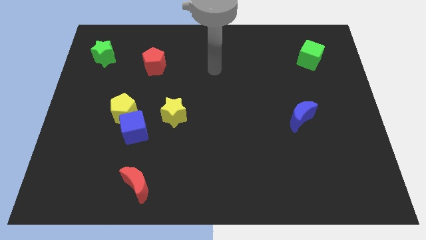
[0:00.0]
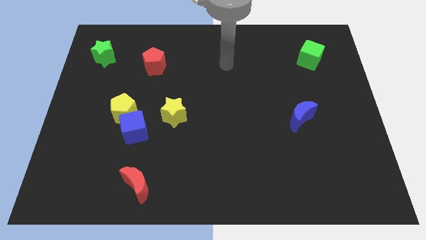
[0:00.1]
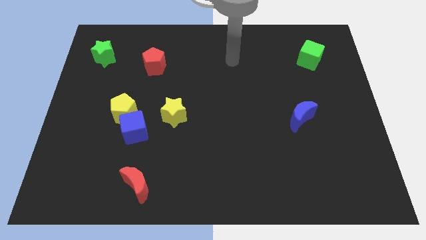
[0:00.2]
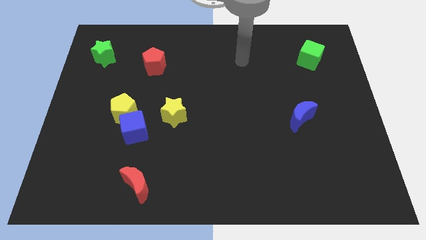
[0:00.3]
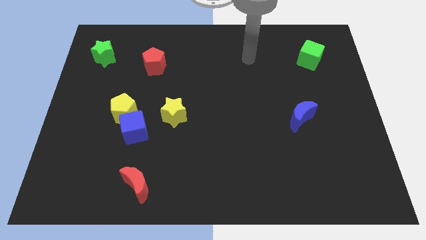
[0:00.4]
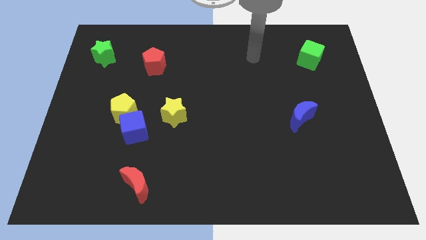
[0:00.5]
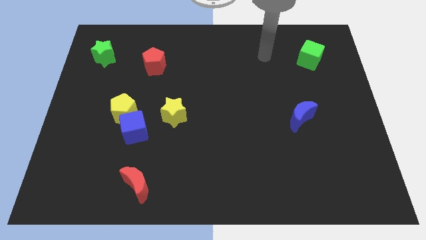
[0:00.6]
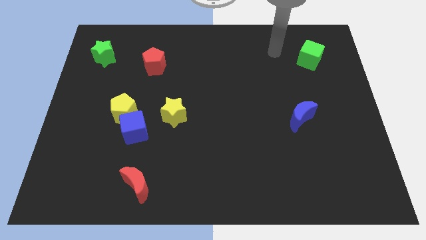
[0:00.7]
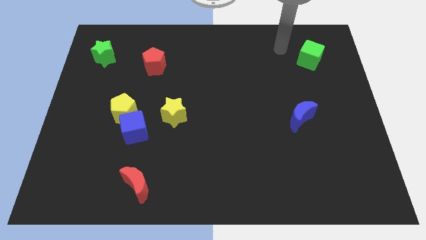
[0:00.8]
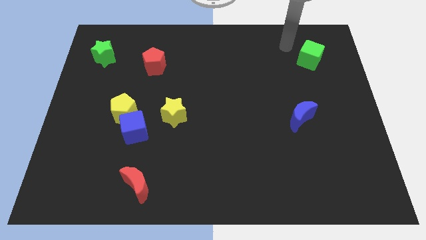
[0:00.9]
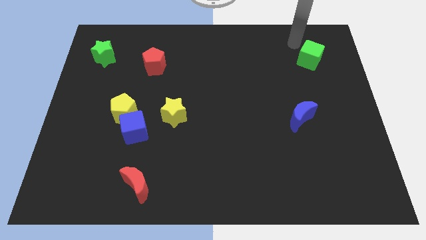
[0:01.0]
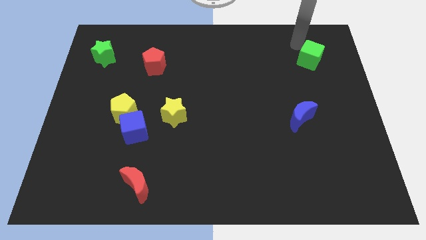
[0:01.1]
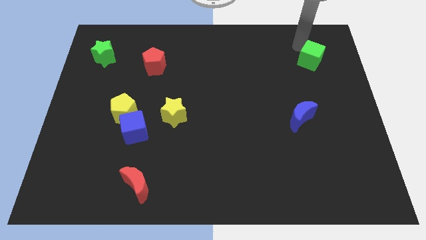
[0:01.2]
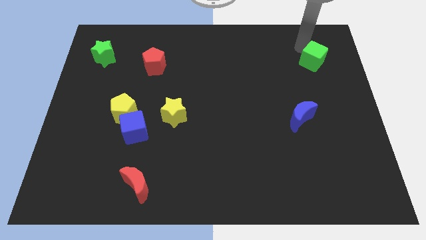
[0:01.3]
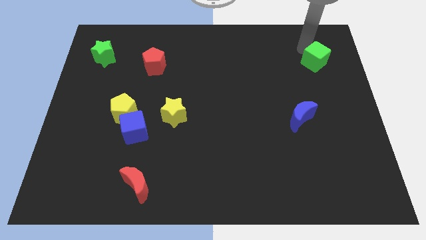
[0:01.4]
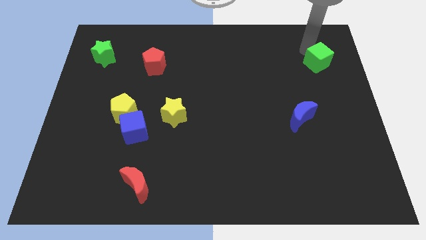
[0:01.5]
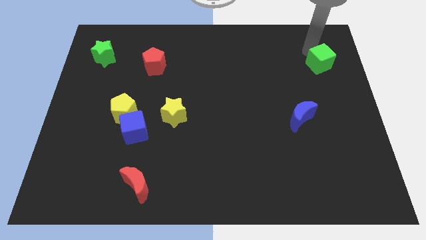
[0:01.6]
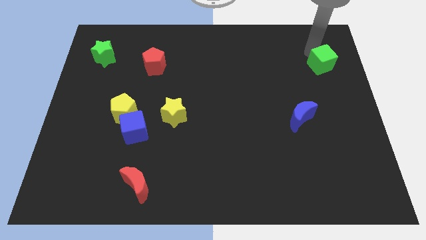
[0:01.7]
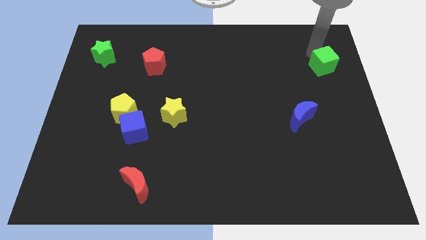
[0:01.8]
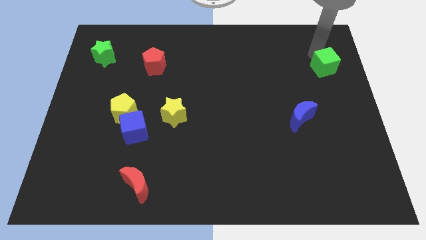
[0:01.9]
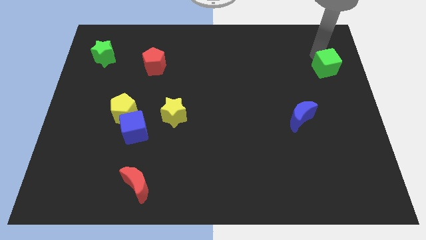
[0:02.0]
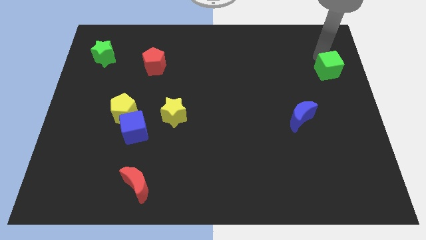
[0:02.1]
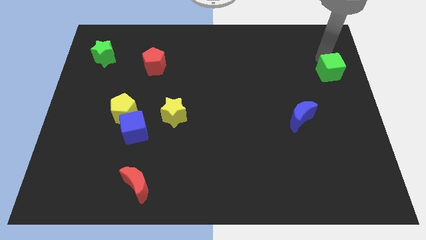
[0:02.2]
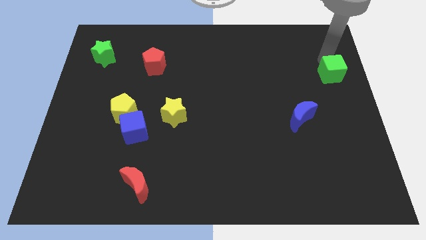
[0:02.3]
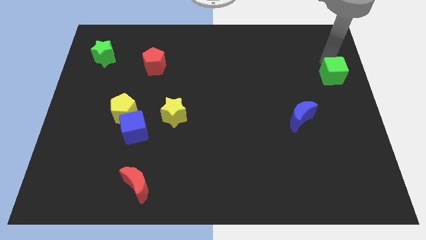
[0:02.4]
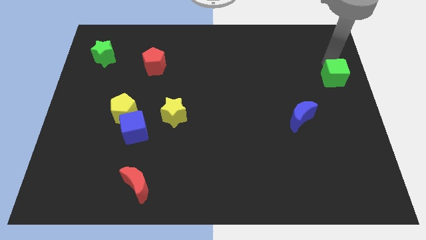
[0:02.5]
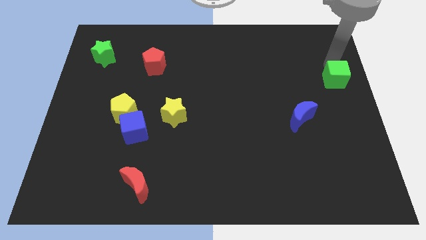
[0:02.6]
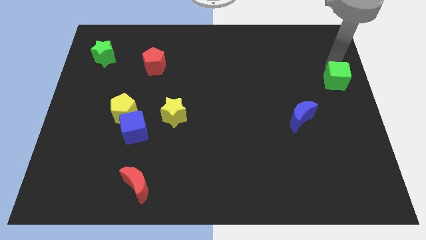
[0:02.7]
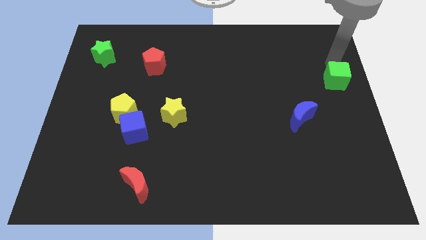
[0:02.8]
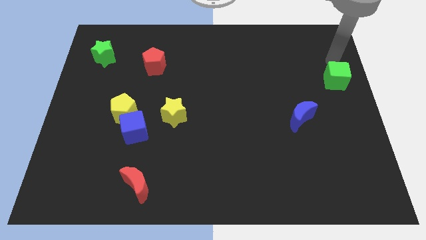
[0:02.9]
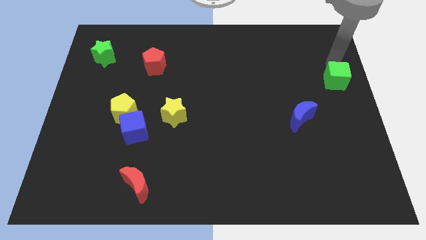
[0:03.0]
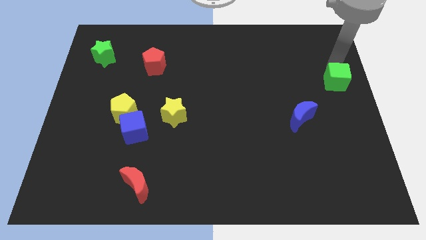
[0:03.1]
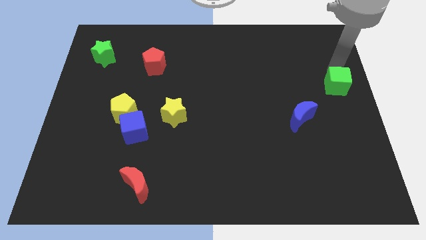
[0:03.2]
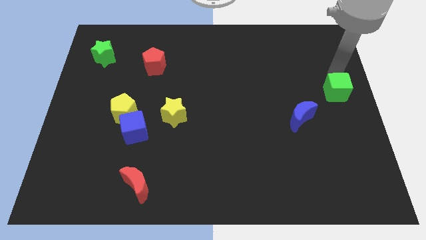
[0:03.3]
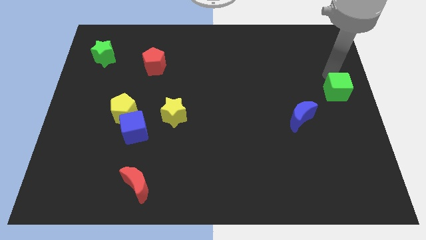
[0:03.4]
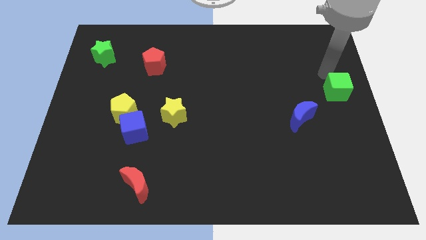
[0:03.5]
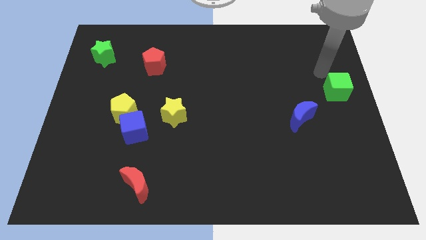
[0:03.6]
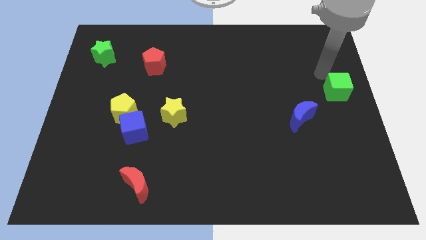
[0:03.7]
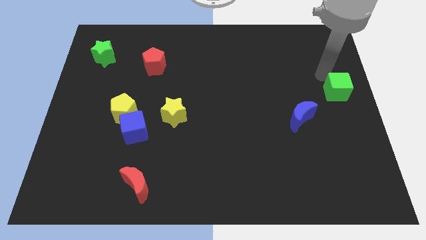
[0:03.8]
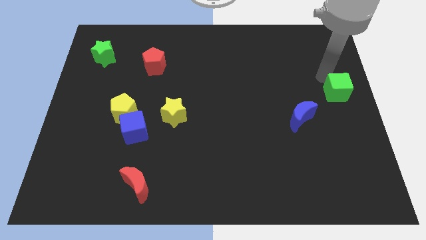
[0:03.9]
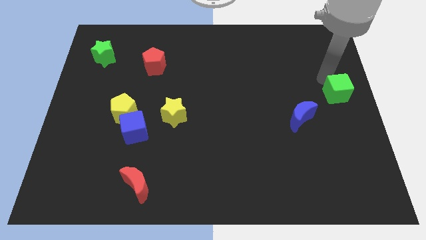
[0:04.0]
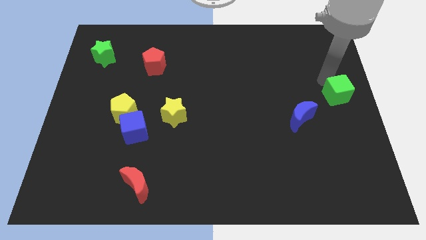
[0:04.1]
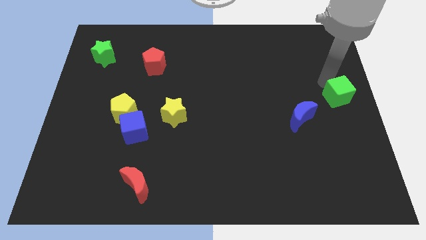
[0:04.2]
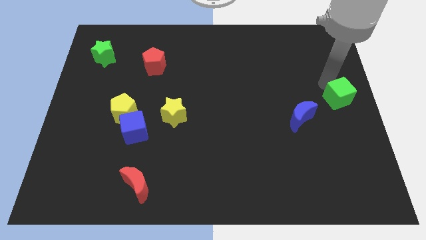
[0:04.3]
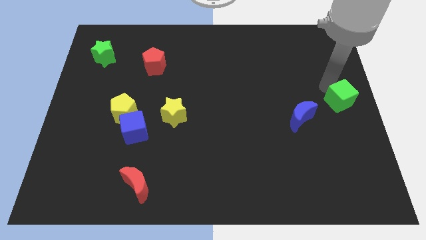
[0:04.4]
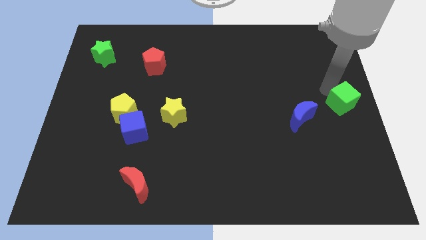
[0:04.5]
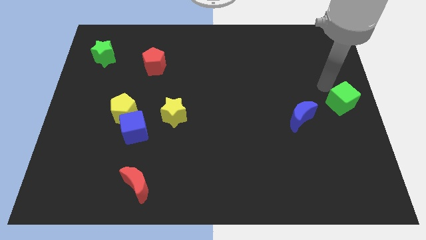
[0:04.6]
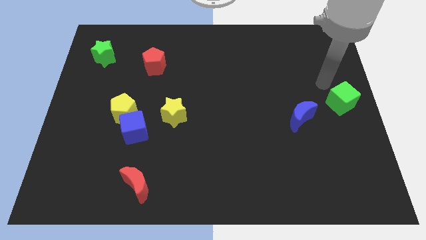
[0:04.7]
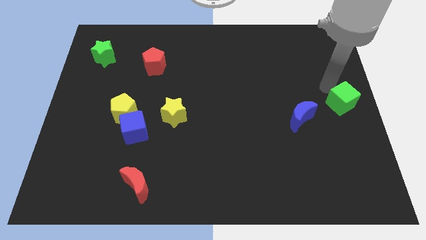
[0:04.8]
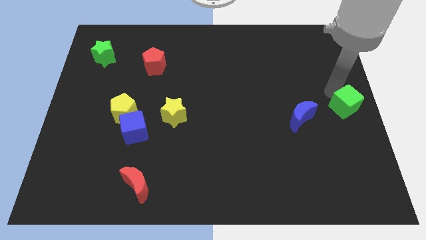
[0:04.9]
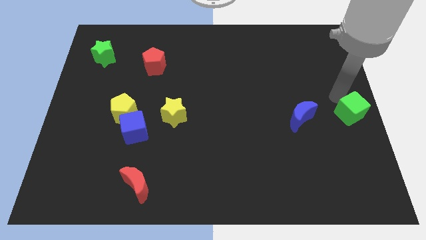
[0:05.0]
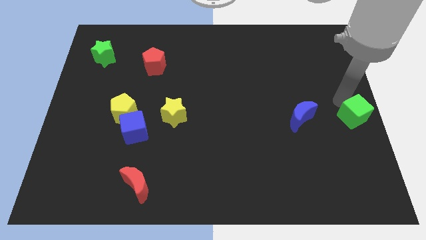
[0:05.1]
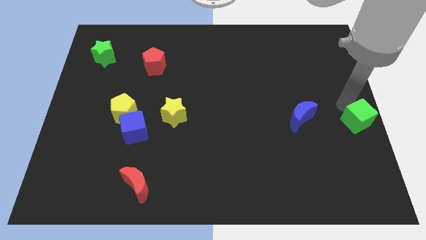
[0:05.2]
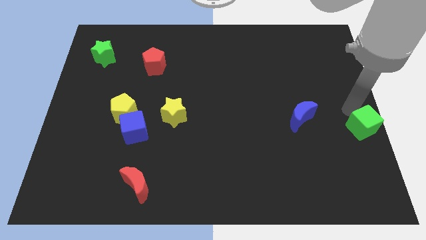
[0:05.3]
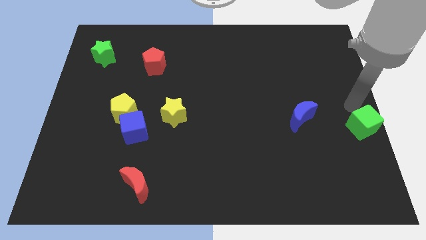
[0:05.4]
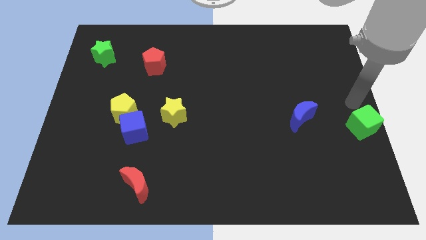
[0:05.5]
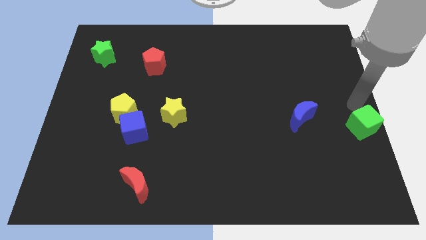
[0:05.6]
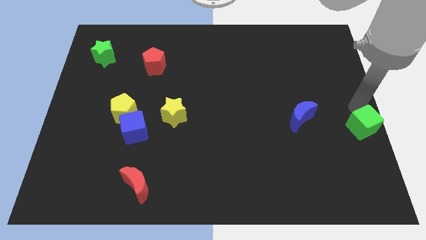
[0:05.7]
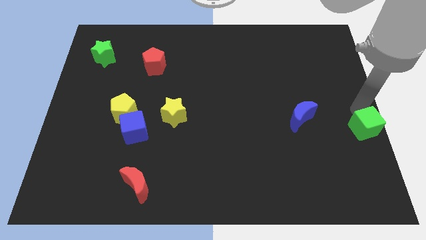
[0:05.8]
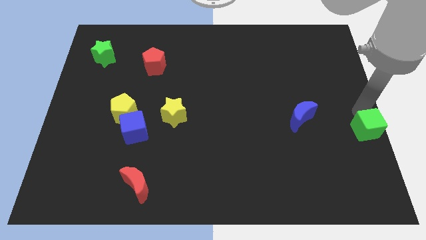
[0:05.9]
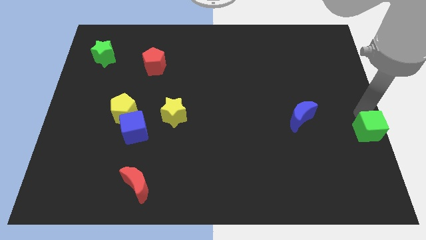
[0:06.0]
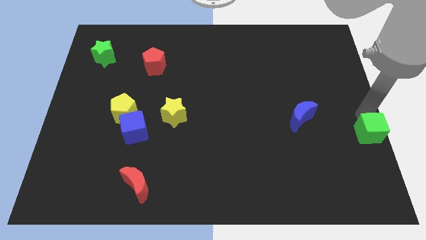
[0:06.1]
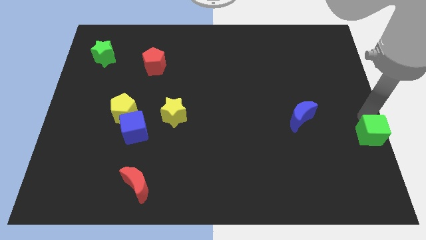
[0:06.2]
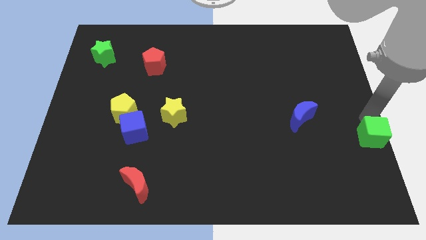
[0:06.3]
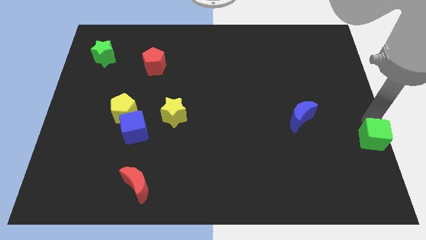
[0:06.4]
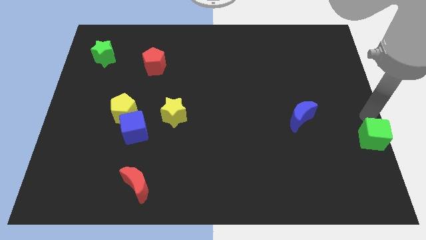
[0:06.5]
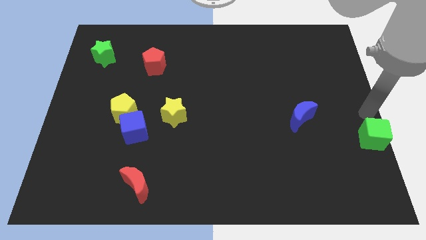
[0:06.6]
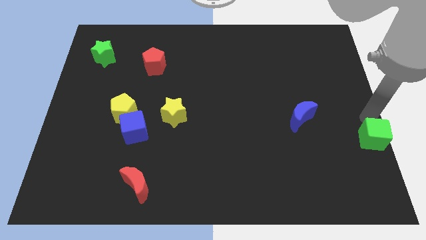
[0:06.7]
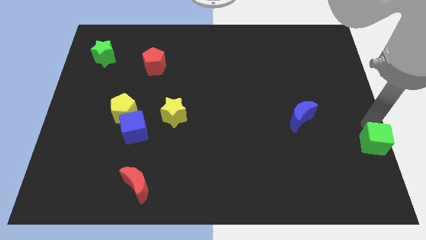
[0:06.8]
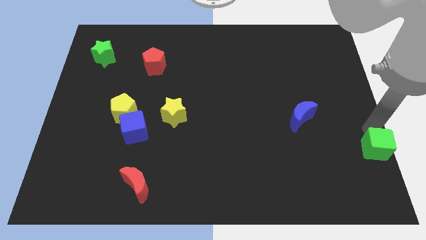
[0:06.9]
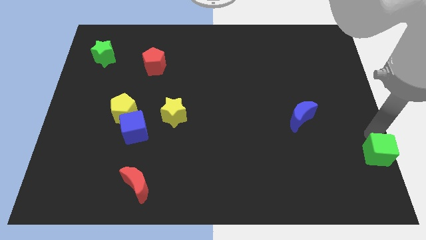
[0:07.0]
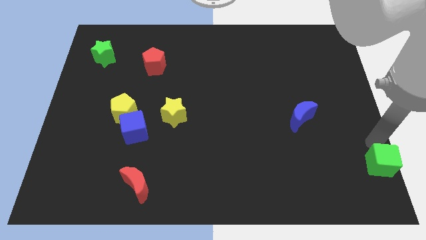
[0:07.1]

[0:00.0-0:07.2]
move the green cube to the bottom right corner
